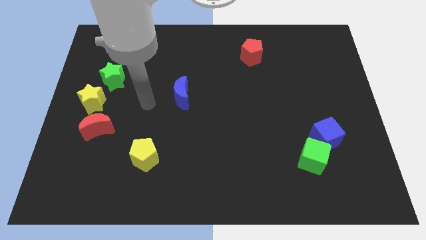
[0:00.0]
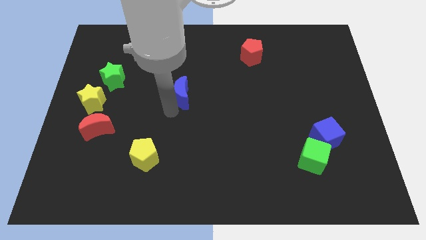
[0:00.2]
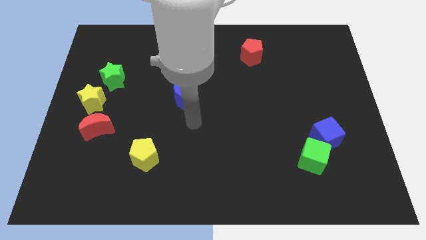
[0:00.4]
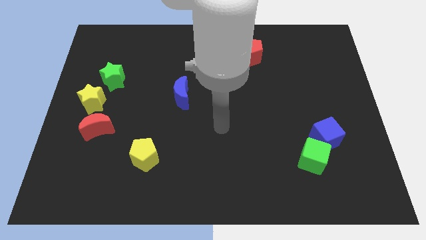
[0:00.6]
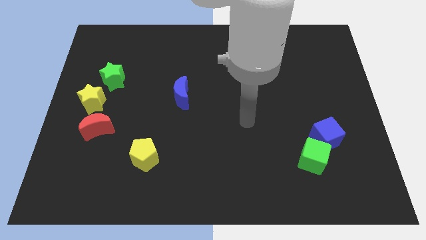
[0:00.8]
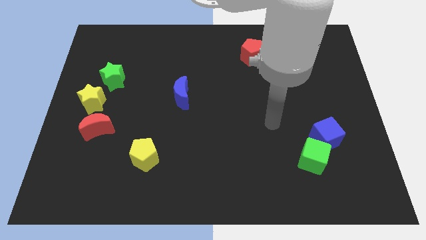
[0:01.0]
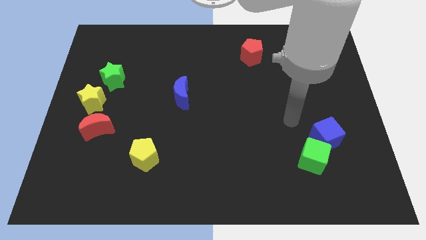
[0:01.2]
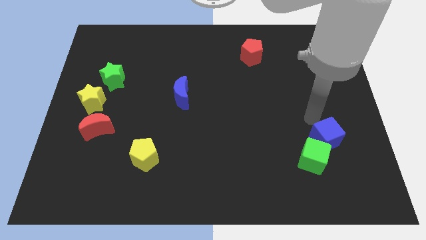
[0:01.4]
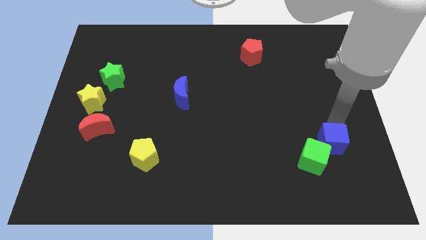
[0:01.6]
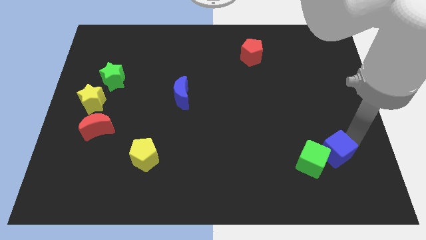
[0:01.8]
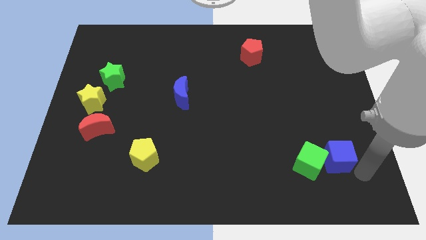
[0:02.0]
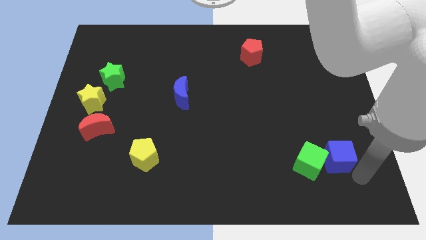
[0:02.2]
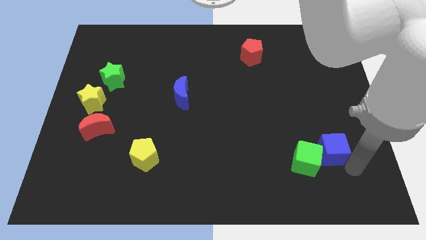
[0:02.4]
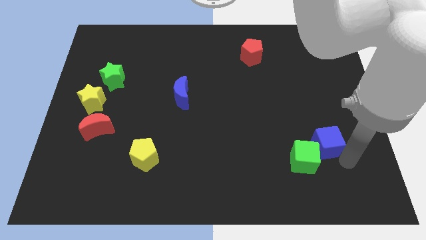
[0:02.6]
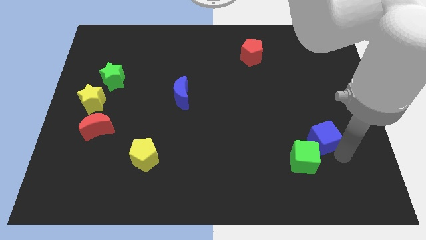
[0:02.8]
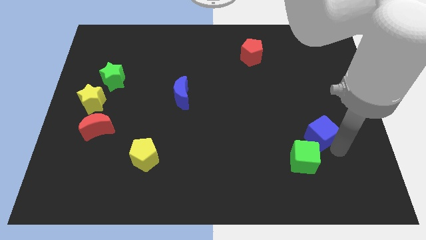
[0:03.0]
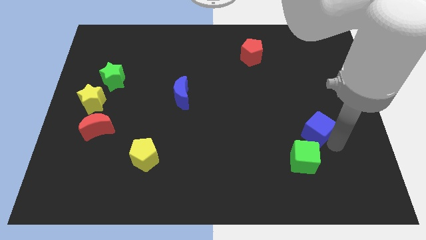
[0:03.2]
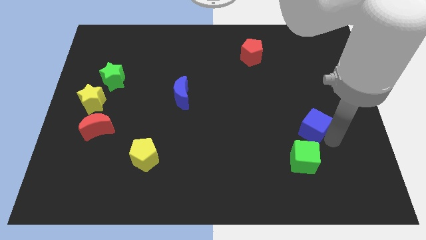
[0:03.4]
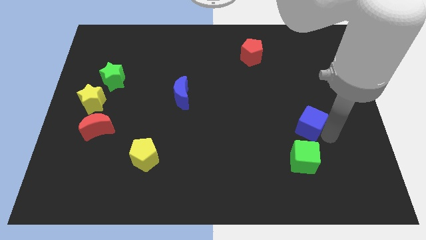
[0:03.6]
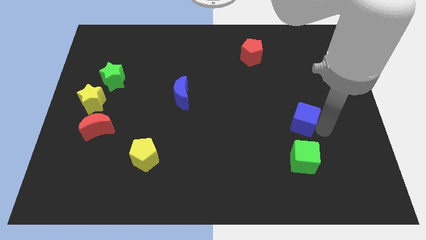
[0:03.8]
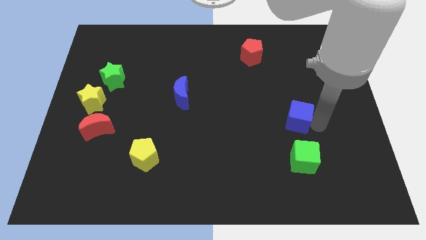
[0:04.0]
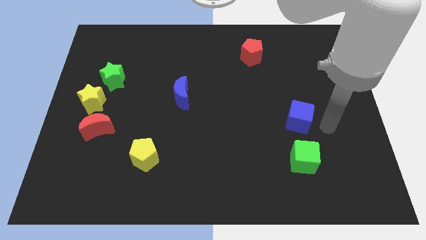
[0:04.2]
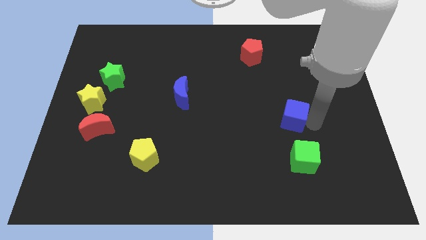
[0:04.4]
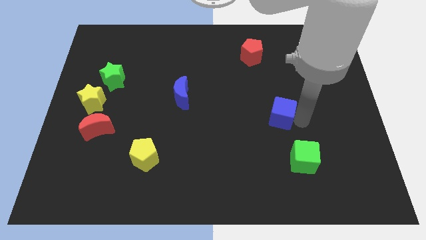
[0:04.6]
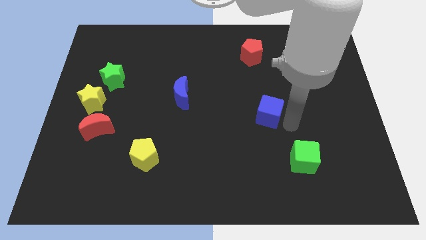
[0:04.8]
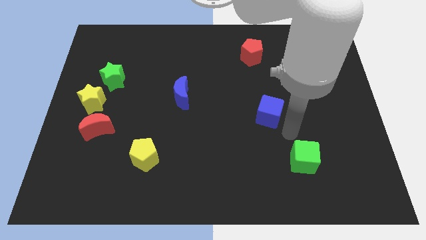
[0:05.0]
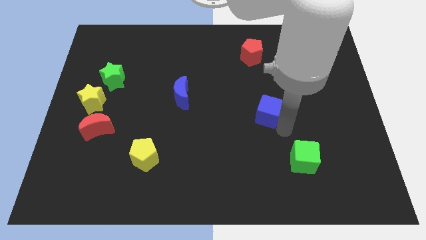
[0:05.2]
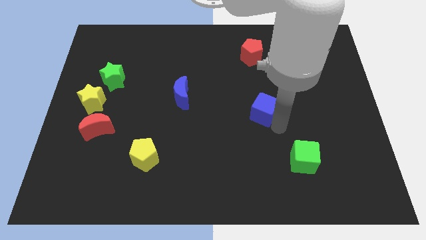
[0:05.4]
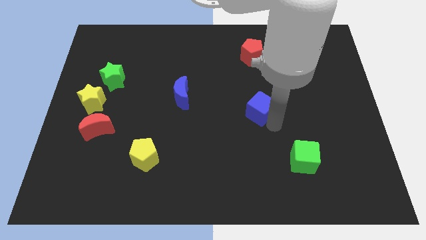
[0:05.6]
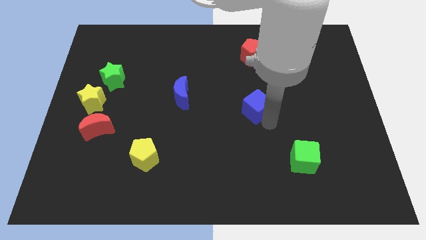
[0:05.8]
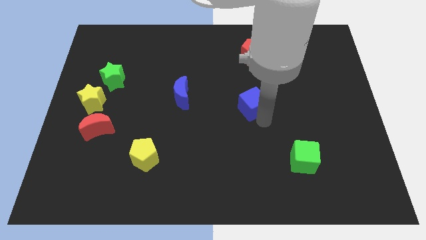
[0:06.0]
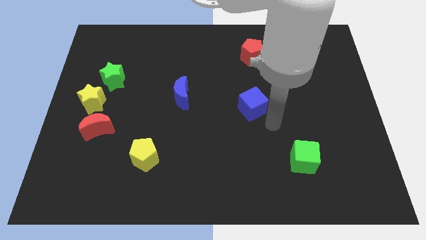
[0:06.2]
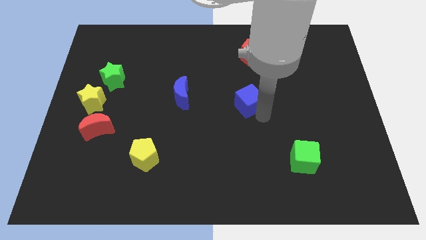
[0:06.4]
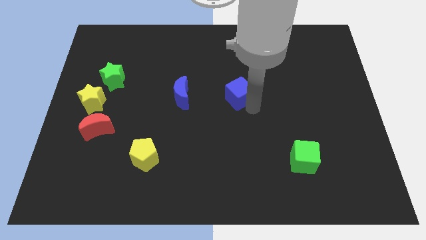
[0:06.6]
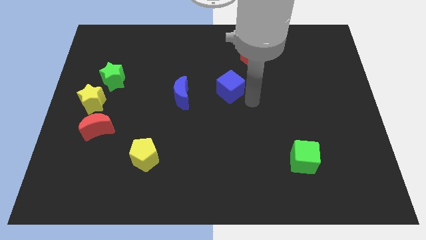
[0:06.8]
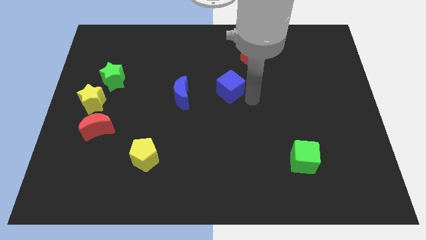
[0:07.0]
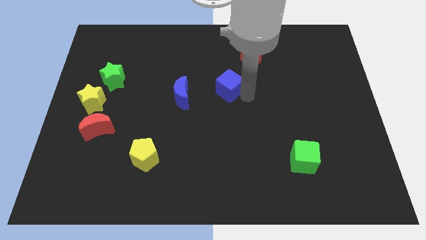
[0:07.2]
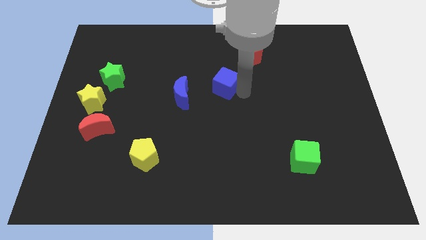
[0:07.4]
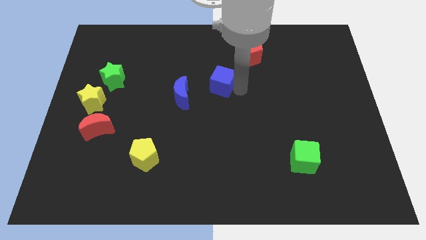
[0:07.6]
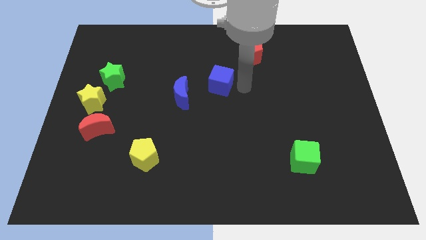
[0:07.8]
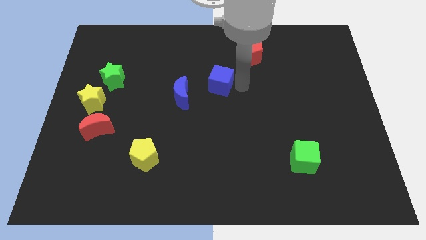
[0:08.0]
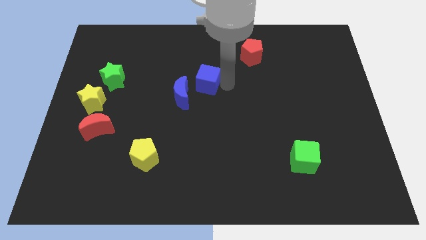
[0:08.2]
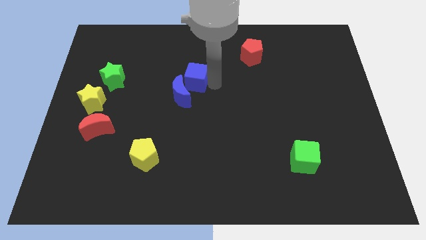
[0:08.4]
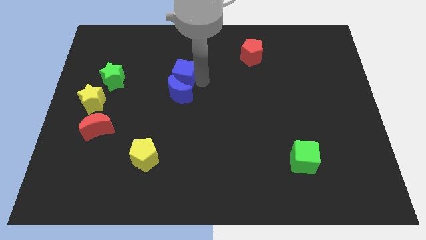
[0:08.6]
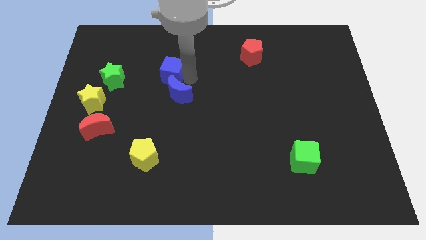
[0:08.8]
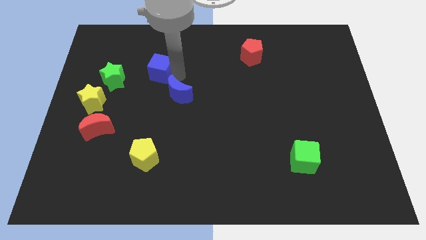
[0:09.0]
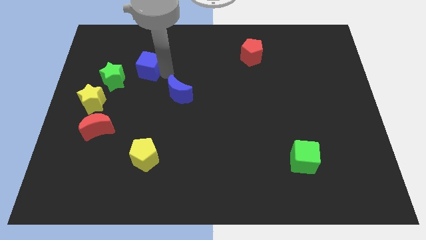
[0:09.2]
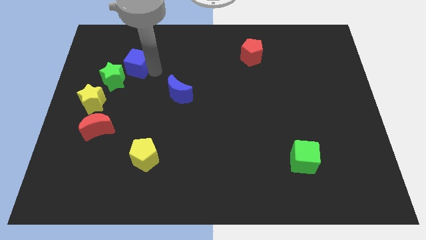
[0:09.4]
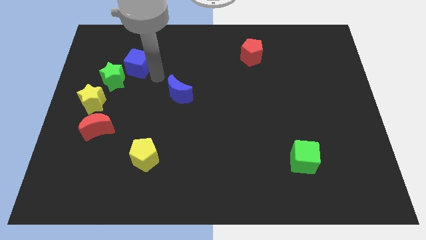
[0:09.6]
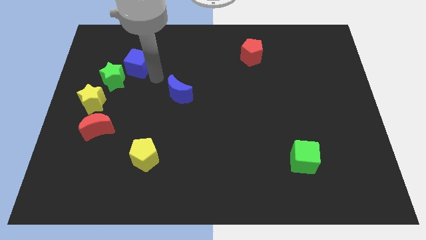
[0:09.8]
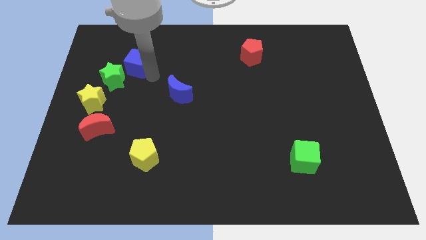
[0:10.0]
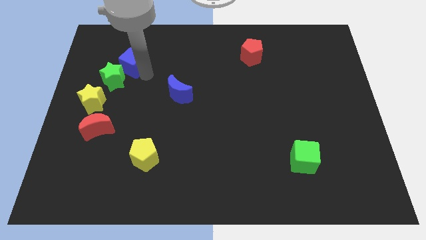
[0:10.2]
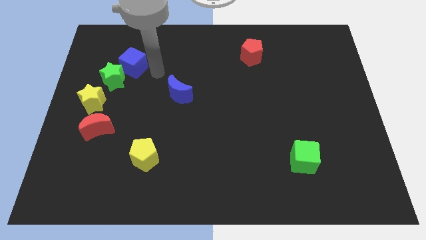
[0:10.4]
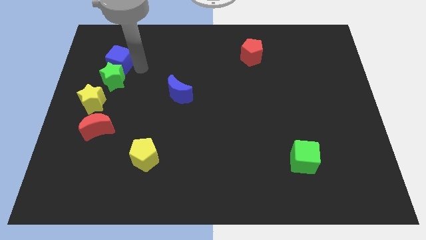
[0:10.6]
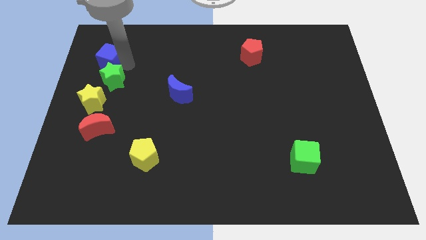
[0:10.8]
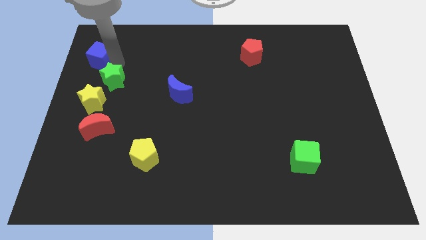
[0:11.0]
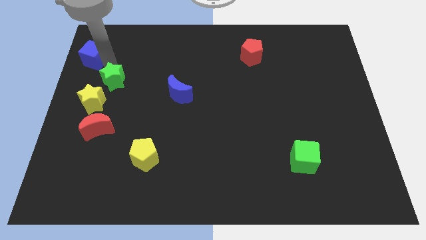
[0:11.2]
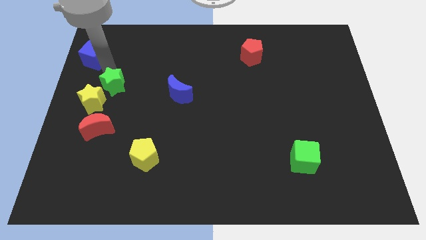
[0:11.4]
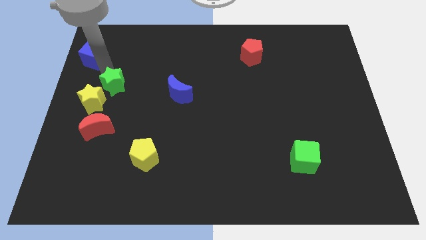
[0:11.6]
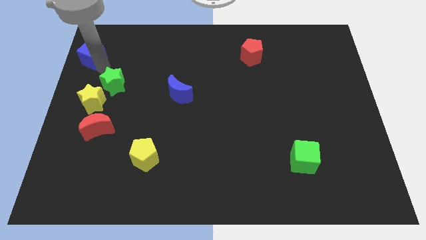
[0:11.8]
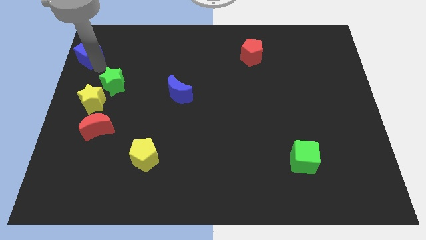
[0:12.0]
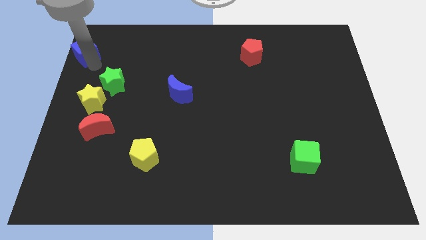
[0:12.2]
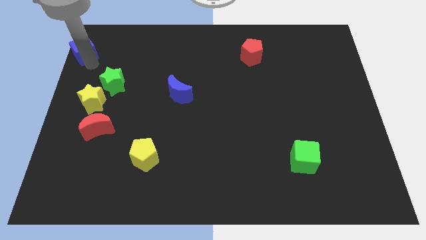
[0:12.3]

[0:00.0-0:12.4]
put the blue cube to the upper left corner
